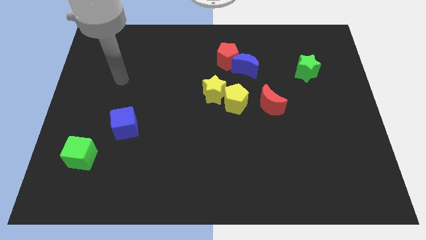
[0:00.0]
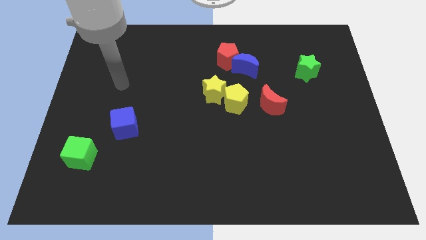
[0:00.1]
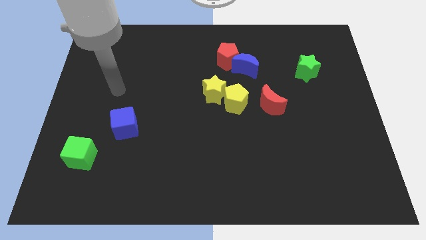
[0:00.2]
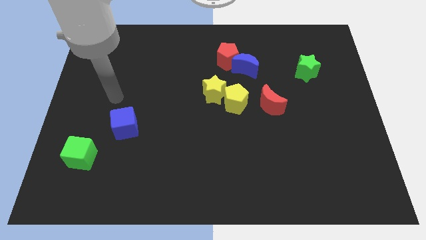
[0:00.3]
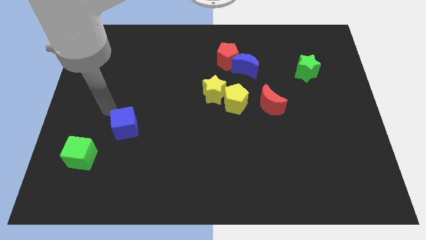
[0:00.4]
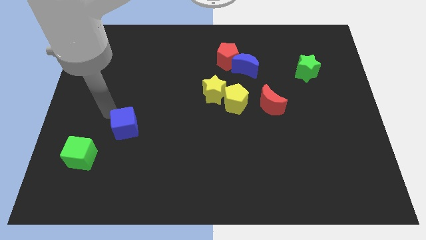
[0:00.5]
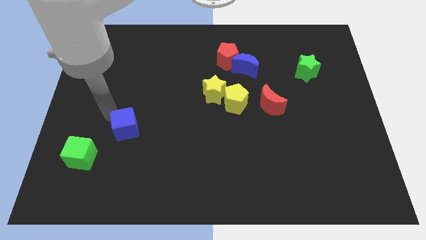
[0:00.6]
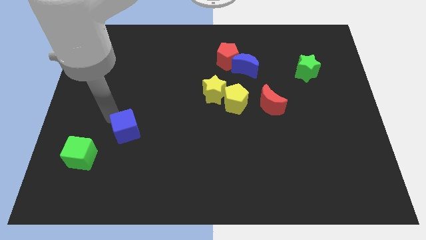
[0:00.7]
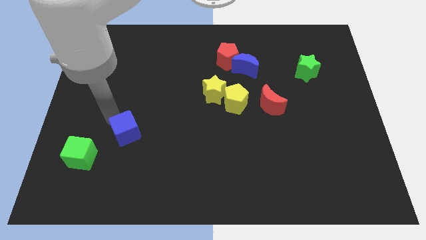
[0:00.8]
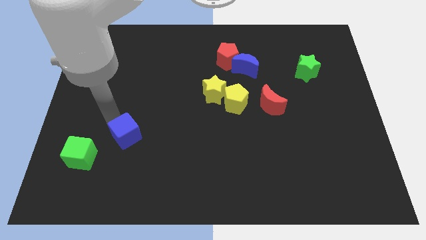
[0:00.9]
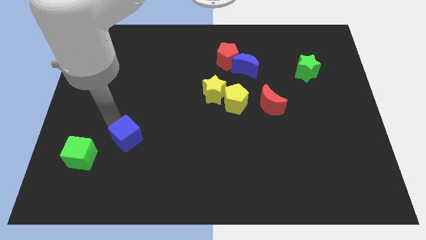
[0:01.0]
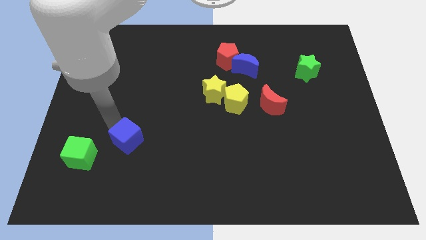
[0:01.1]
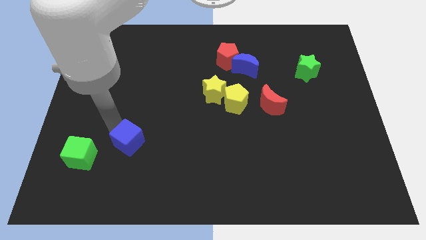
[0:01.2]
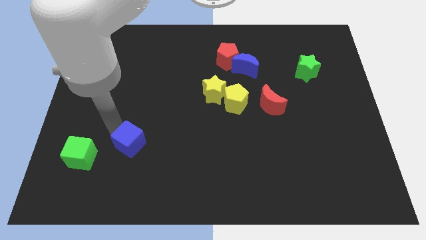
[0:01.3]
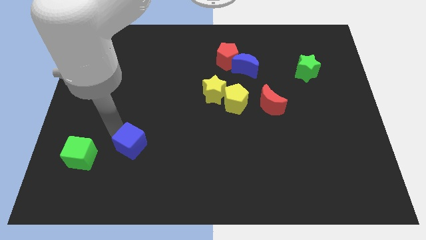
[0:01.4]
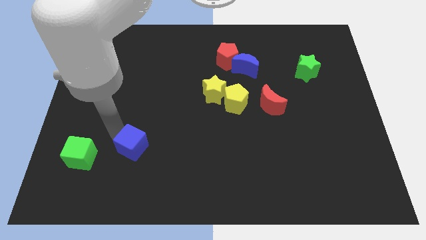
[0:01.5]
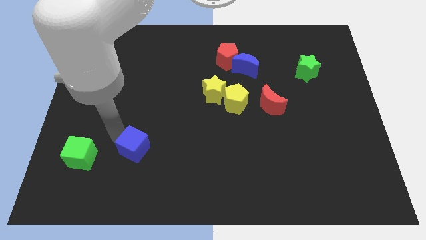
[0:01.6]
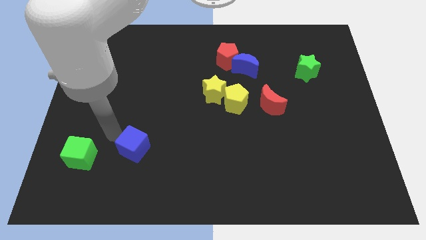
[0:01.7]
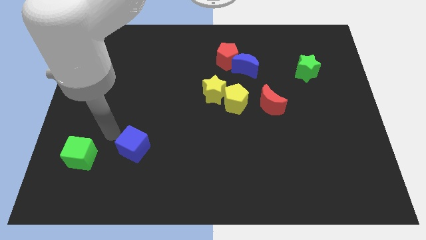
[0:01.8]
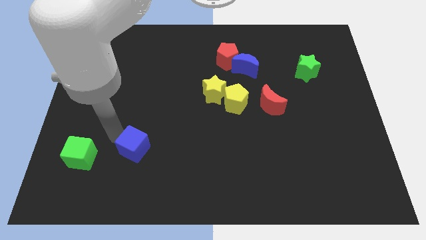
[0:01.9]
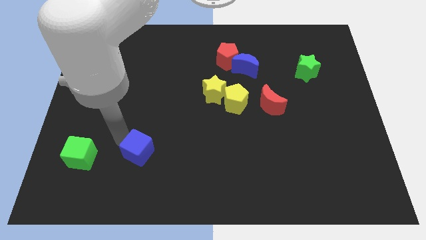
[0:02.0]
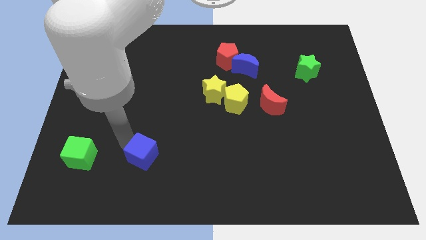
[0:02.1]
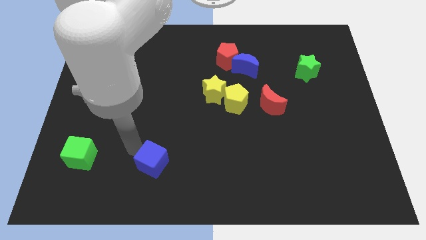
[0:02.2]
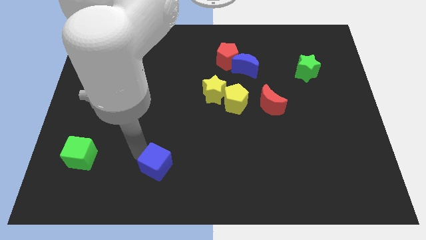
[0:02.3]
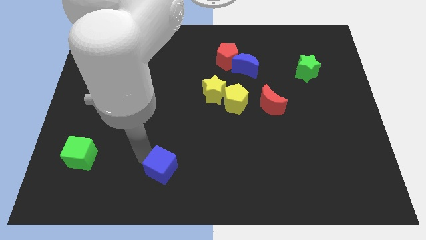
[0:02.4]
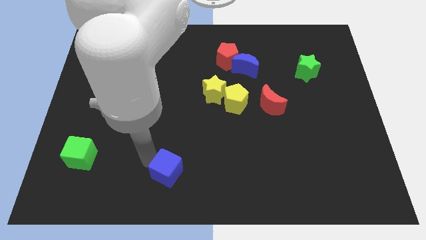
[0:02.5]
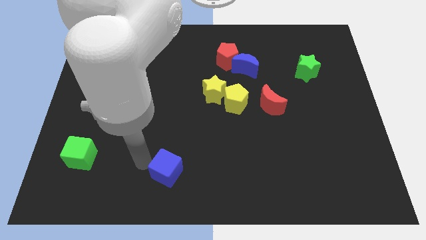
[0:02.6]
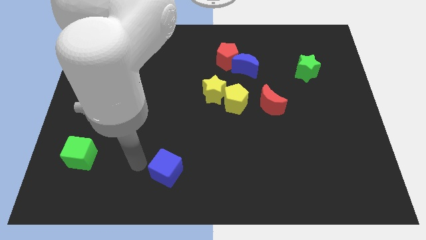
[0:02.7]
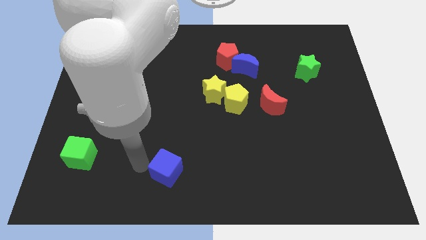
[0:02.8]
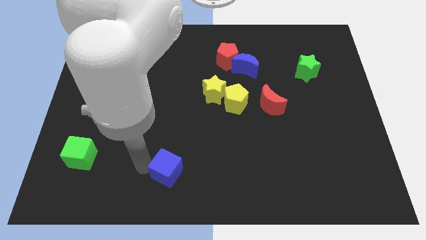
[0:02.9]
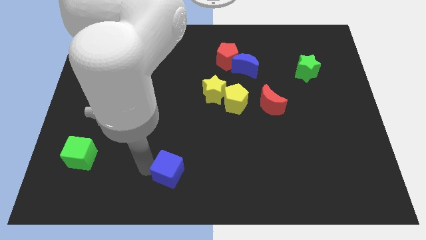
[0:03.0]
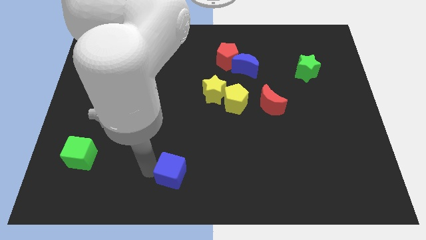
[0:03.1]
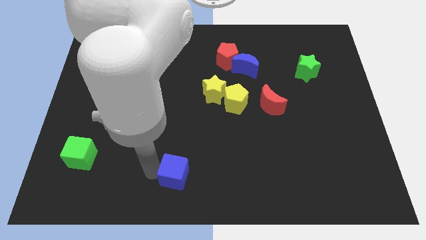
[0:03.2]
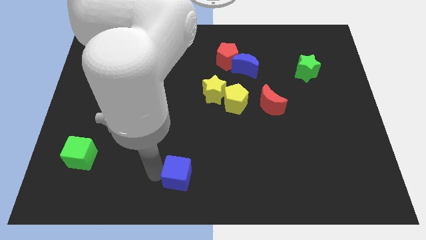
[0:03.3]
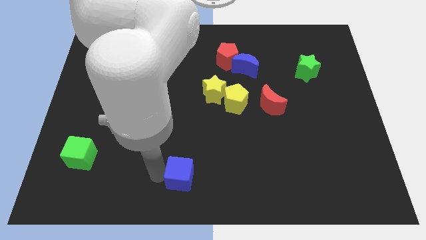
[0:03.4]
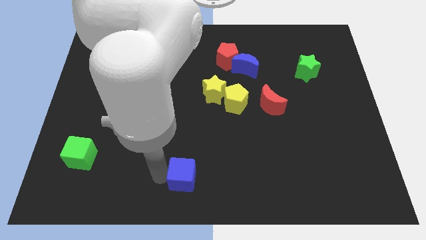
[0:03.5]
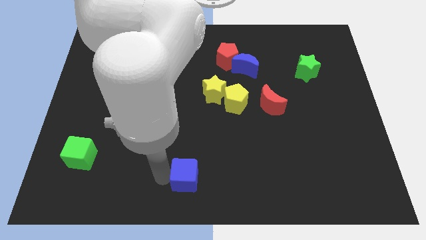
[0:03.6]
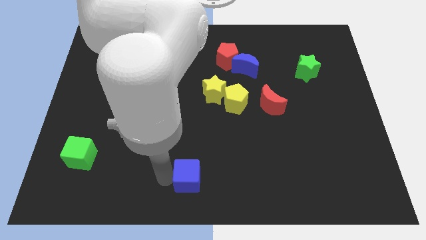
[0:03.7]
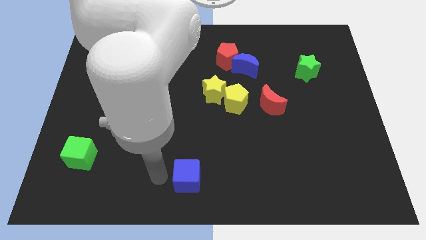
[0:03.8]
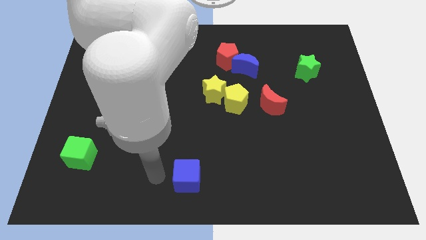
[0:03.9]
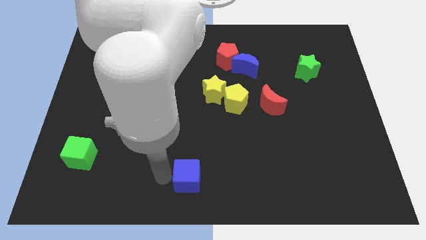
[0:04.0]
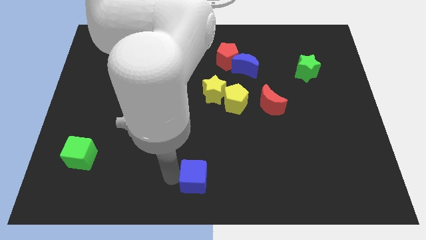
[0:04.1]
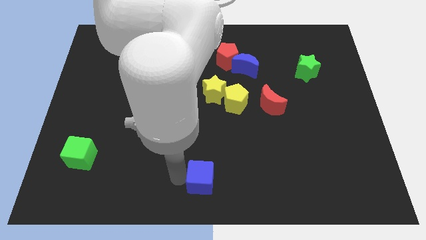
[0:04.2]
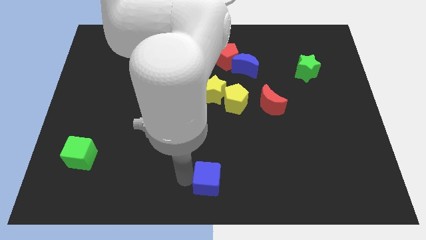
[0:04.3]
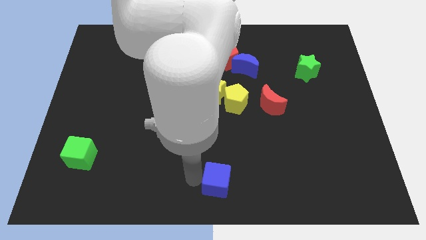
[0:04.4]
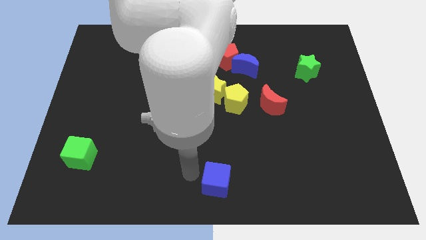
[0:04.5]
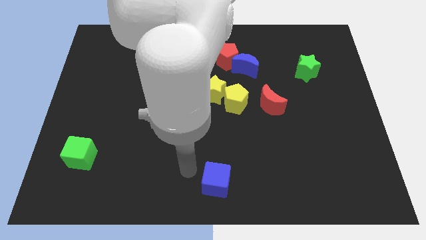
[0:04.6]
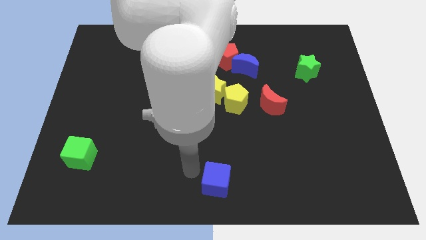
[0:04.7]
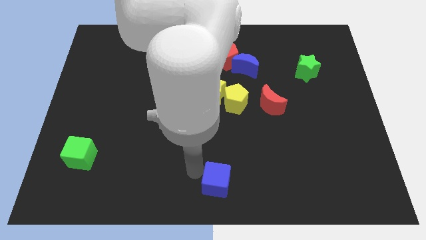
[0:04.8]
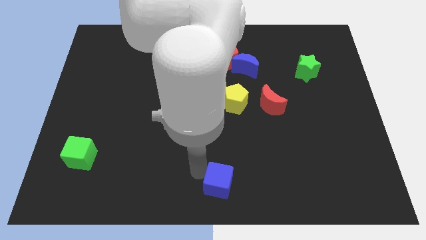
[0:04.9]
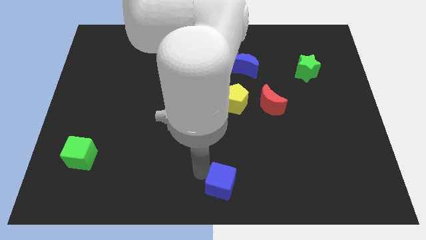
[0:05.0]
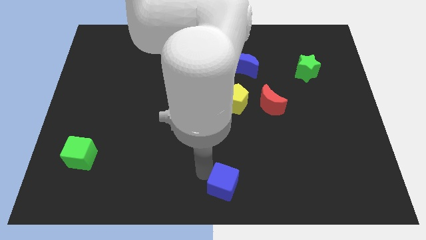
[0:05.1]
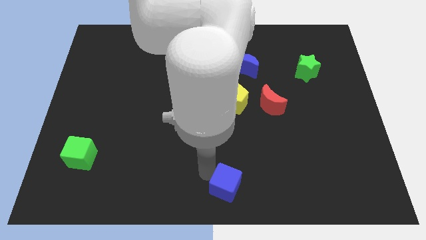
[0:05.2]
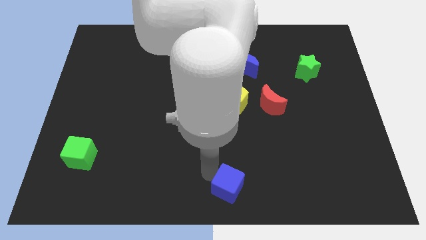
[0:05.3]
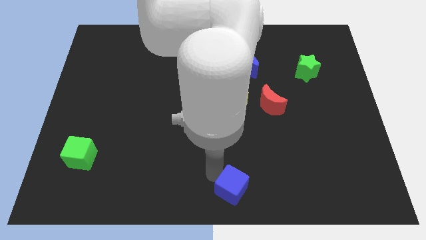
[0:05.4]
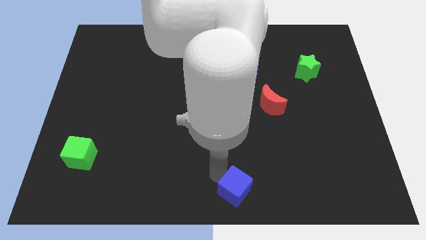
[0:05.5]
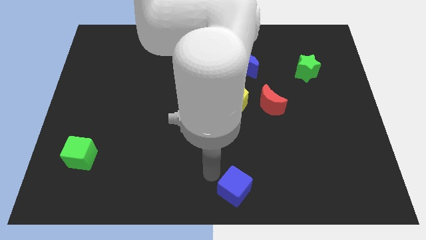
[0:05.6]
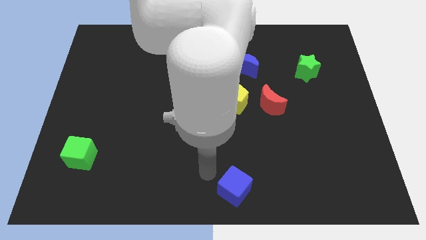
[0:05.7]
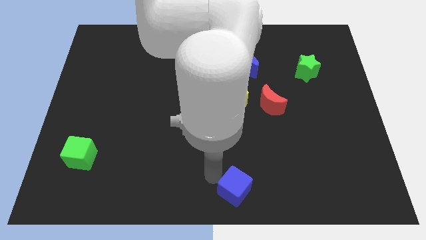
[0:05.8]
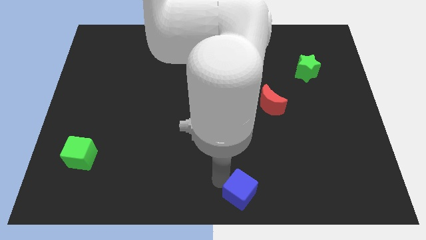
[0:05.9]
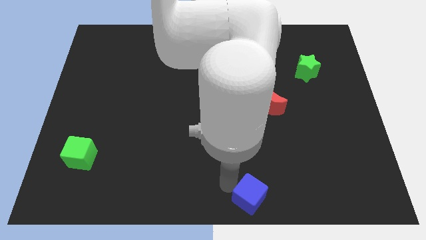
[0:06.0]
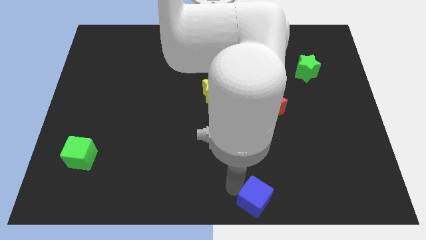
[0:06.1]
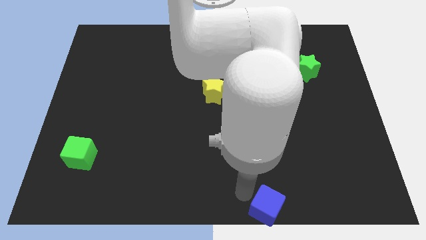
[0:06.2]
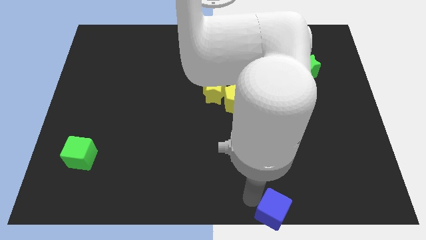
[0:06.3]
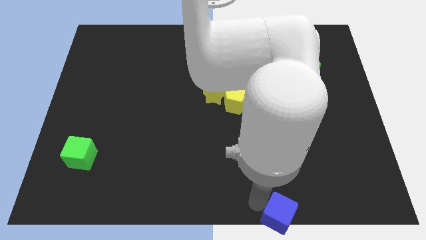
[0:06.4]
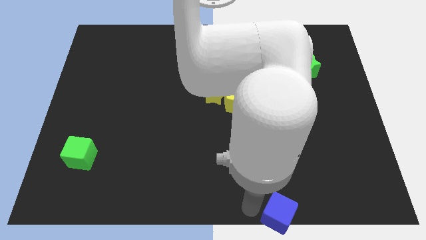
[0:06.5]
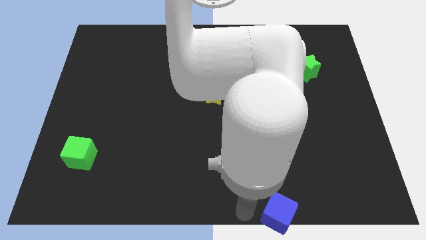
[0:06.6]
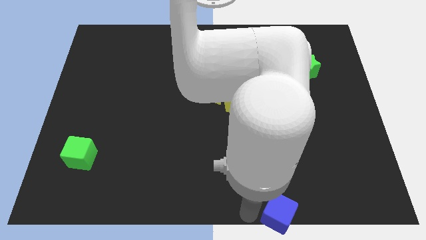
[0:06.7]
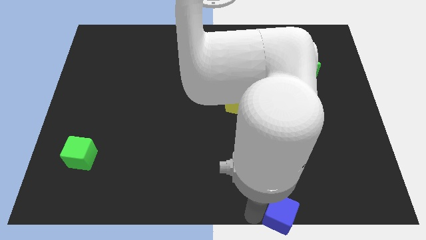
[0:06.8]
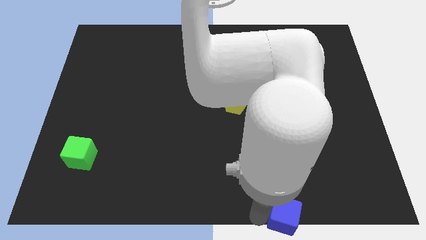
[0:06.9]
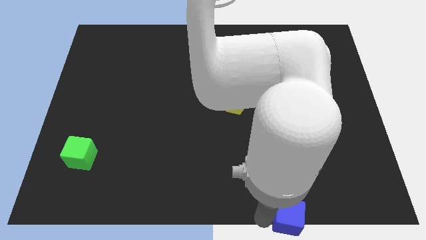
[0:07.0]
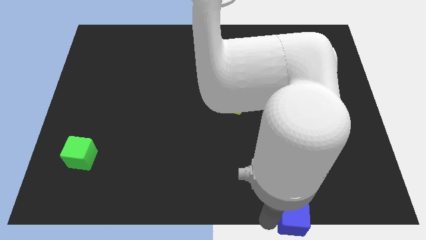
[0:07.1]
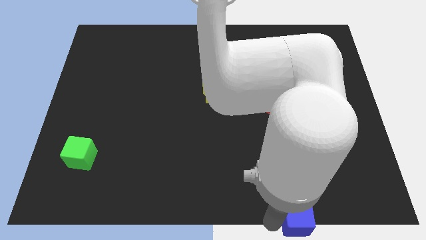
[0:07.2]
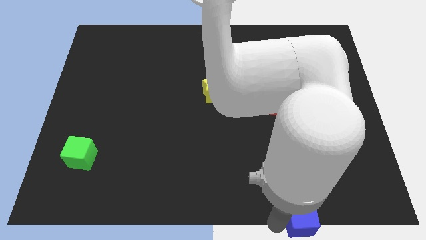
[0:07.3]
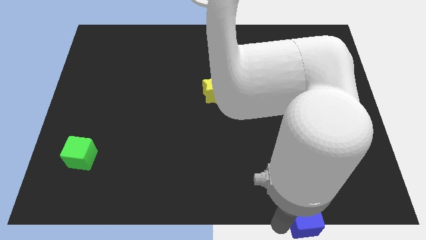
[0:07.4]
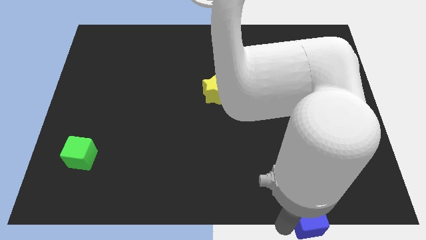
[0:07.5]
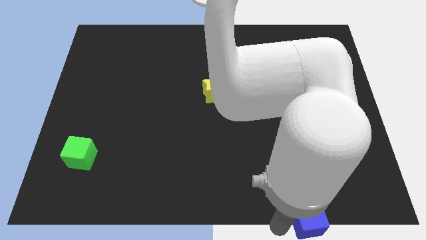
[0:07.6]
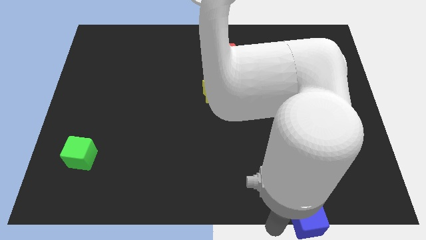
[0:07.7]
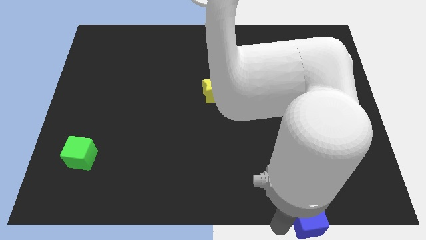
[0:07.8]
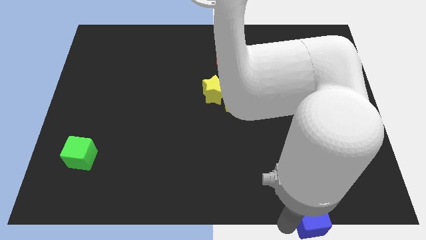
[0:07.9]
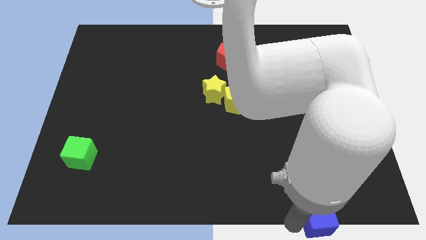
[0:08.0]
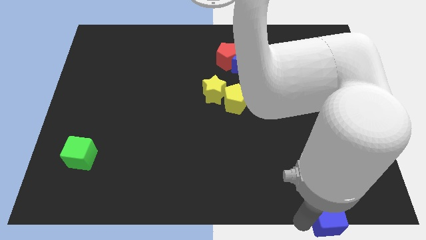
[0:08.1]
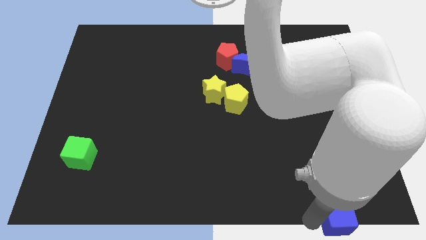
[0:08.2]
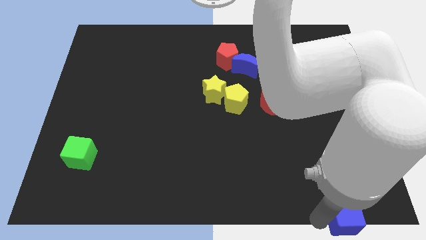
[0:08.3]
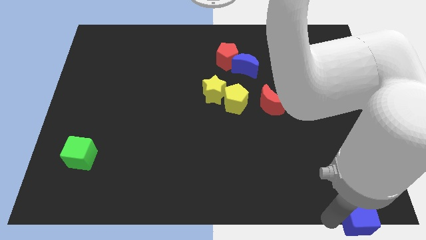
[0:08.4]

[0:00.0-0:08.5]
push the blue cube to the bottom right
